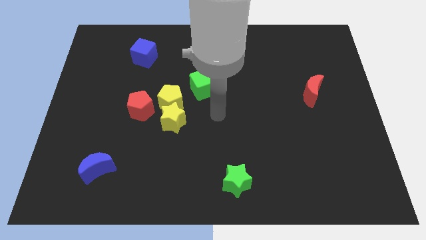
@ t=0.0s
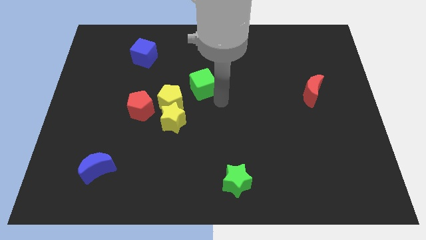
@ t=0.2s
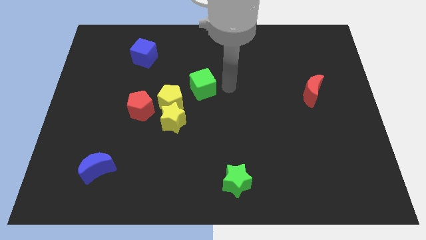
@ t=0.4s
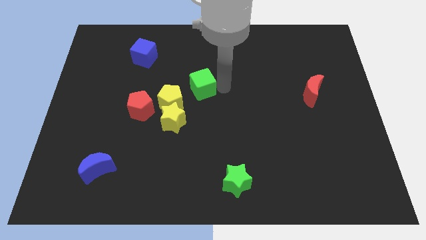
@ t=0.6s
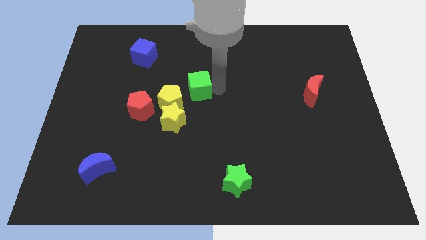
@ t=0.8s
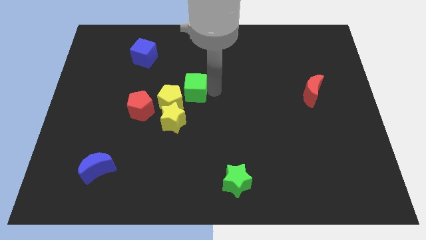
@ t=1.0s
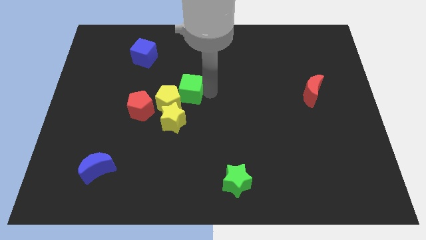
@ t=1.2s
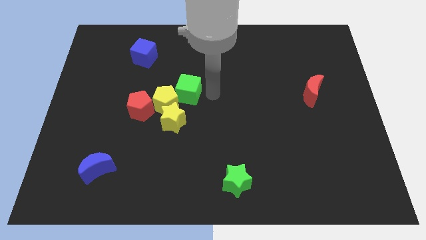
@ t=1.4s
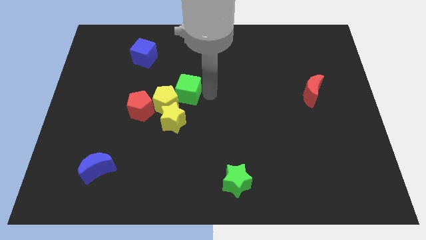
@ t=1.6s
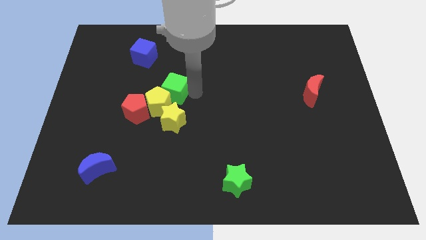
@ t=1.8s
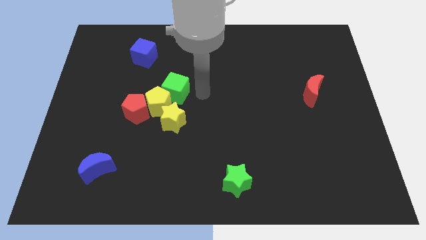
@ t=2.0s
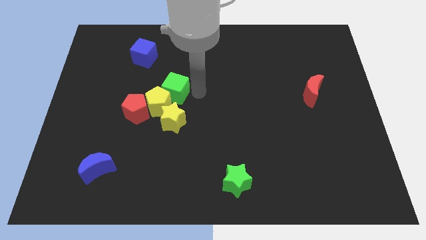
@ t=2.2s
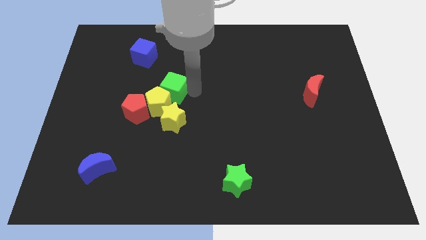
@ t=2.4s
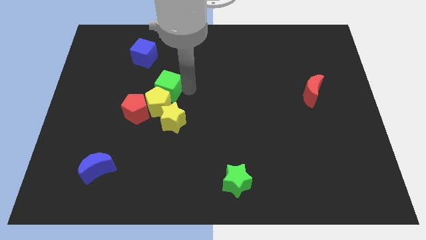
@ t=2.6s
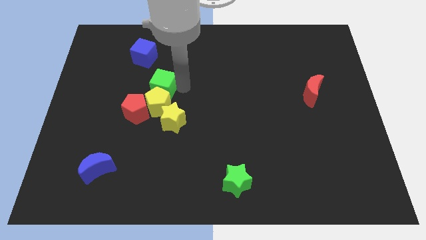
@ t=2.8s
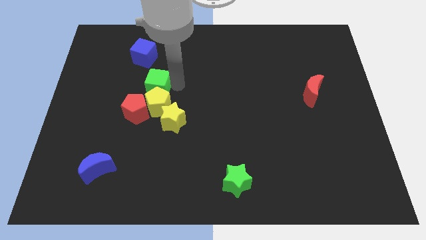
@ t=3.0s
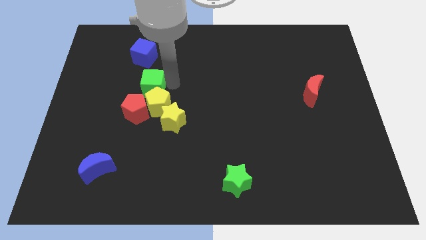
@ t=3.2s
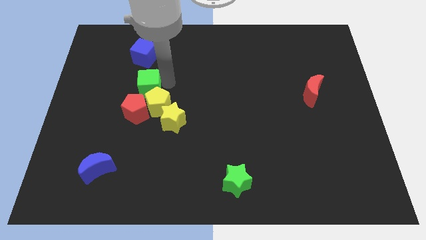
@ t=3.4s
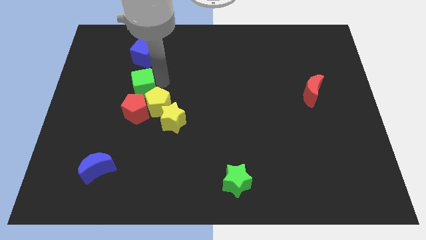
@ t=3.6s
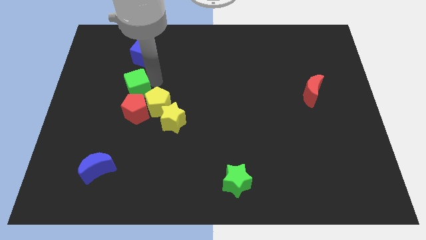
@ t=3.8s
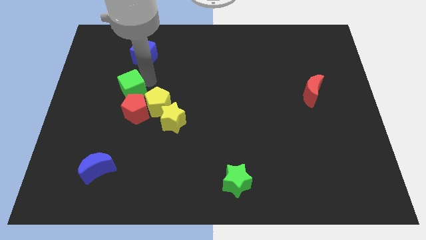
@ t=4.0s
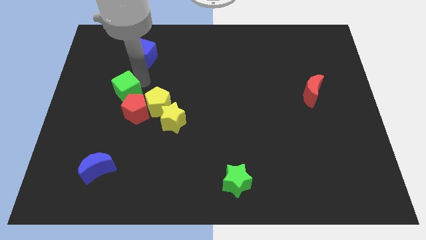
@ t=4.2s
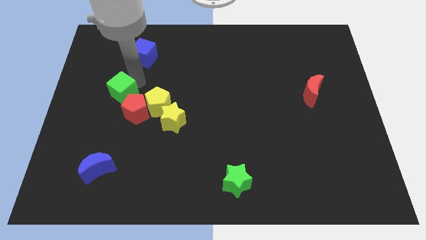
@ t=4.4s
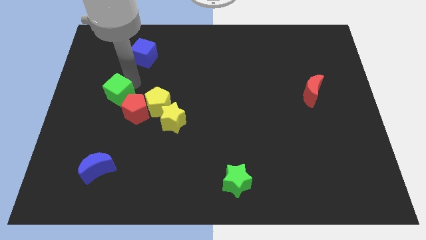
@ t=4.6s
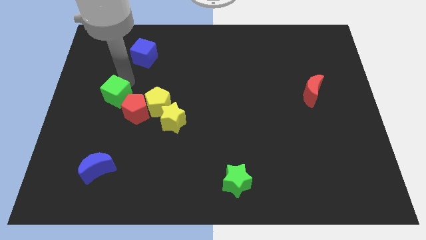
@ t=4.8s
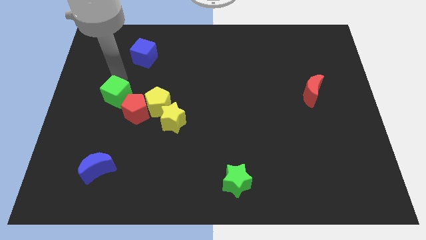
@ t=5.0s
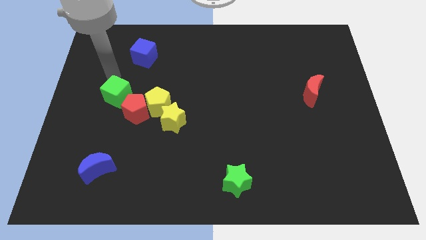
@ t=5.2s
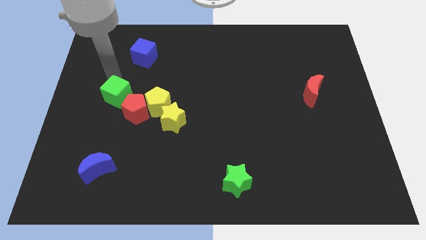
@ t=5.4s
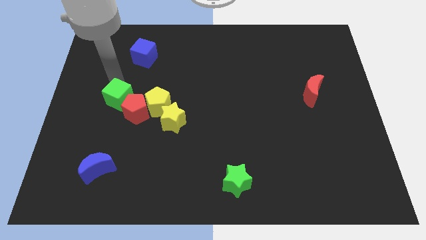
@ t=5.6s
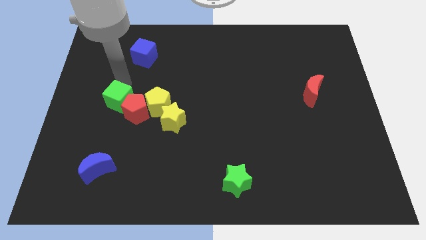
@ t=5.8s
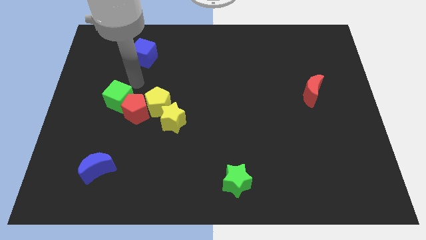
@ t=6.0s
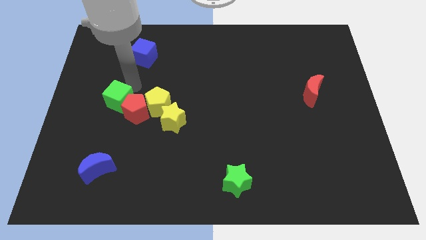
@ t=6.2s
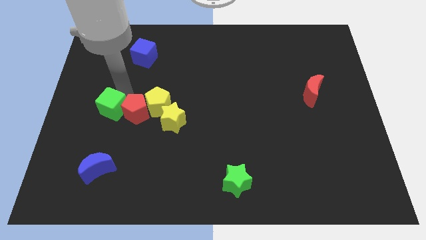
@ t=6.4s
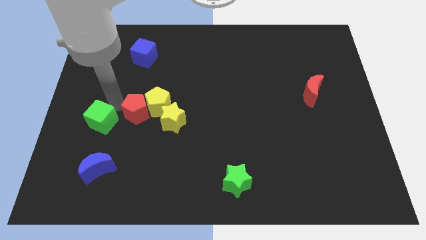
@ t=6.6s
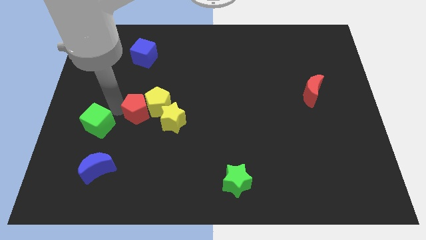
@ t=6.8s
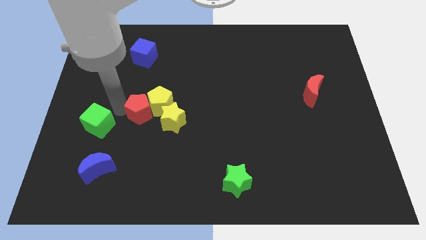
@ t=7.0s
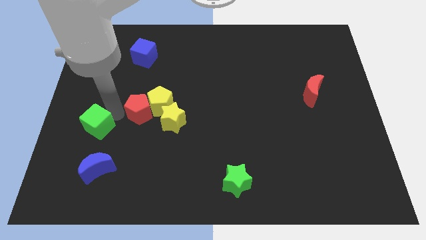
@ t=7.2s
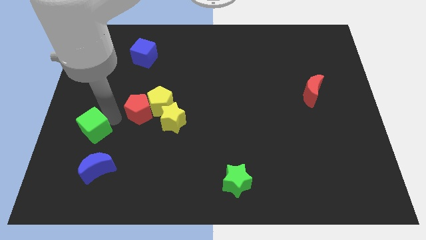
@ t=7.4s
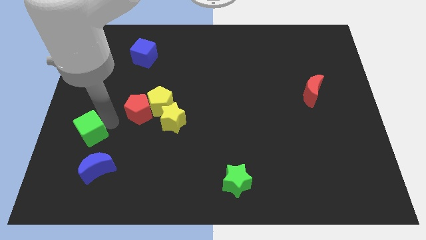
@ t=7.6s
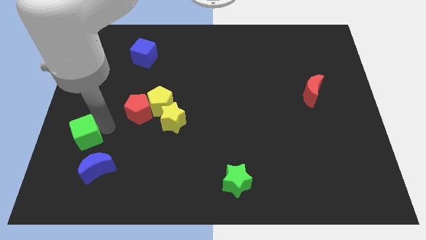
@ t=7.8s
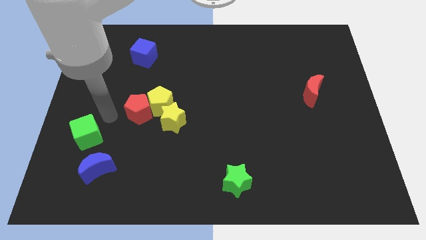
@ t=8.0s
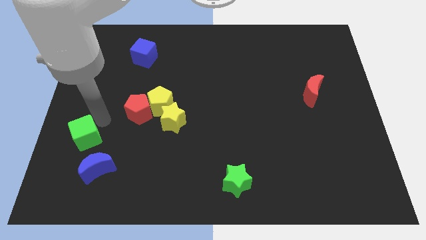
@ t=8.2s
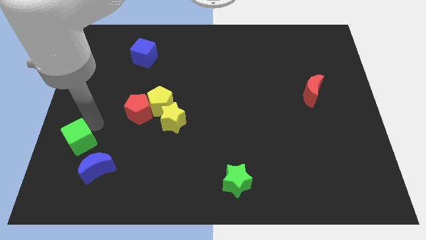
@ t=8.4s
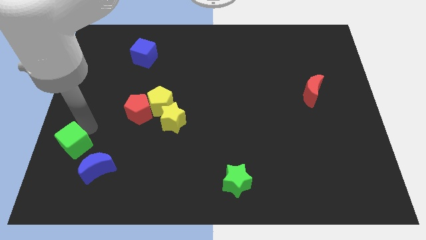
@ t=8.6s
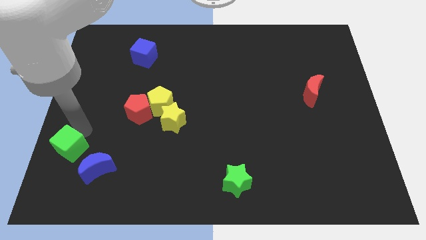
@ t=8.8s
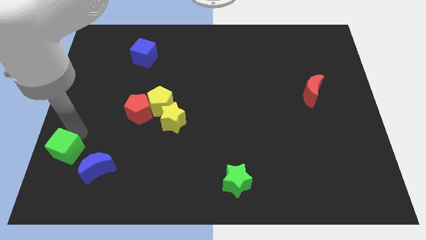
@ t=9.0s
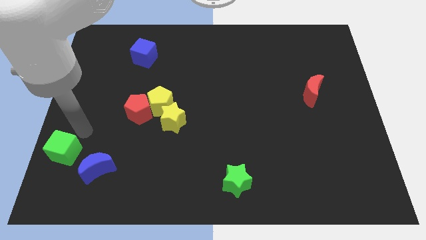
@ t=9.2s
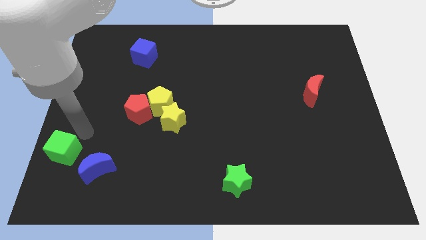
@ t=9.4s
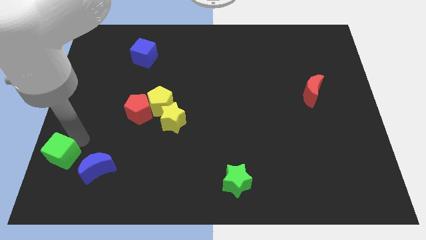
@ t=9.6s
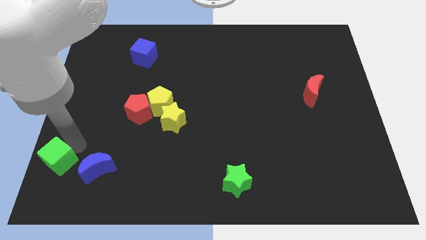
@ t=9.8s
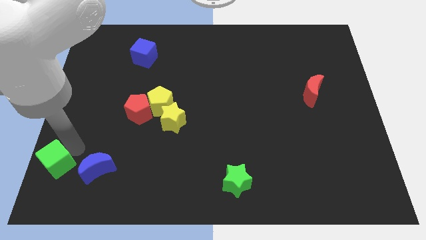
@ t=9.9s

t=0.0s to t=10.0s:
put the green cube to the bottom left

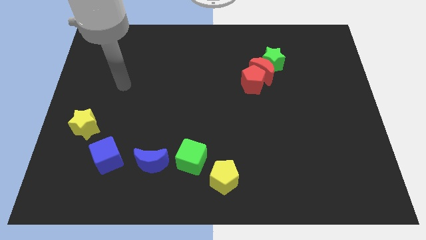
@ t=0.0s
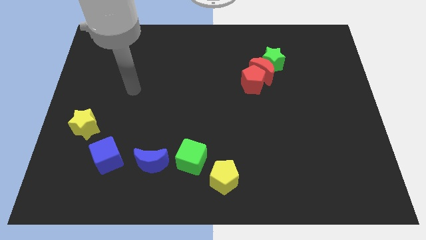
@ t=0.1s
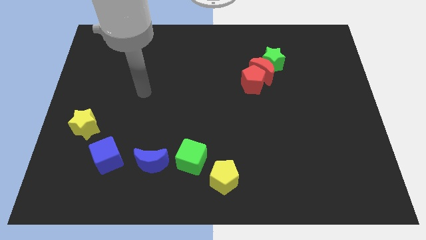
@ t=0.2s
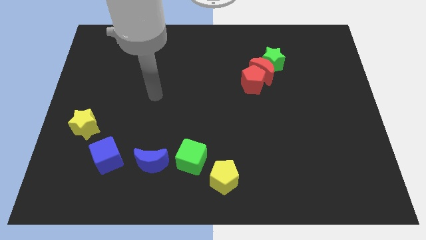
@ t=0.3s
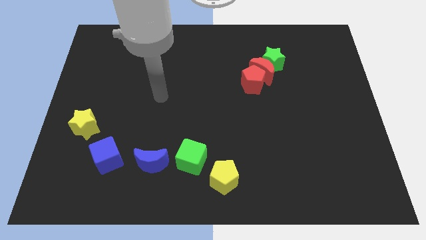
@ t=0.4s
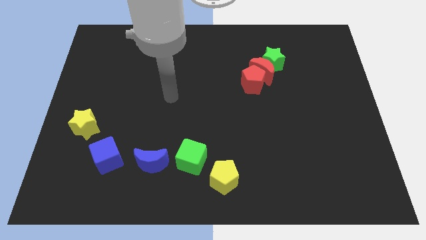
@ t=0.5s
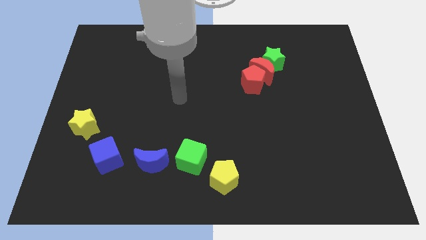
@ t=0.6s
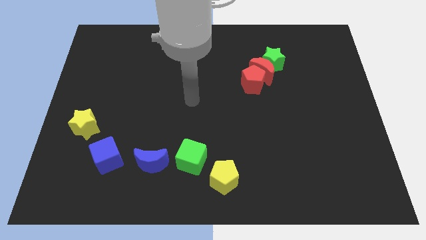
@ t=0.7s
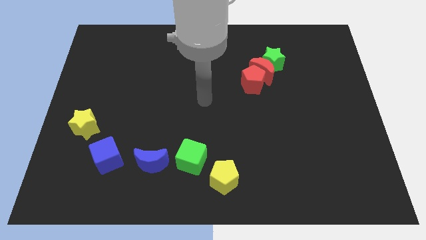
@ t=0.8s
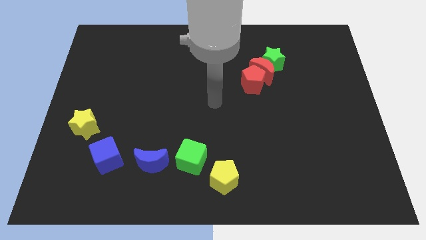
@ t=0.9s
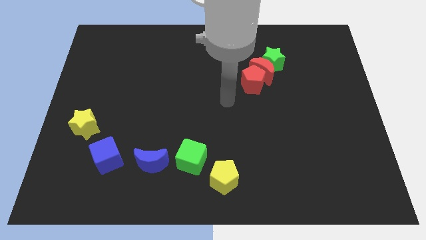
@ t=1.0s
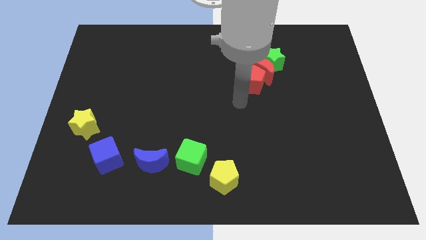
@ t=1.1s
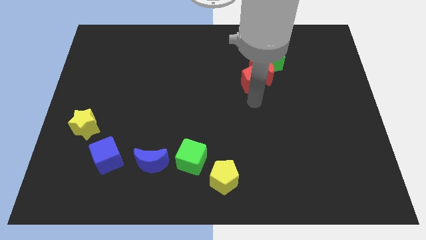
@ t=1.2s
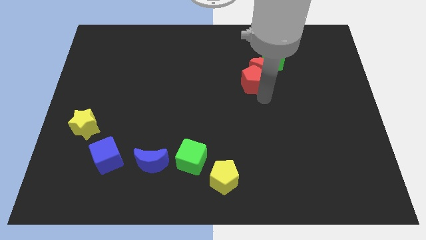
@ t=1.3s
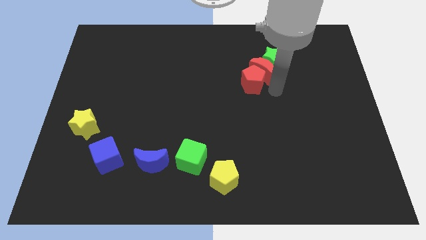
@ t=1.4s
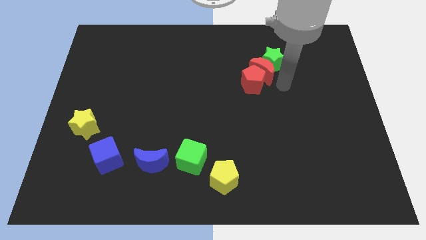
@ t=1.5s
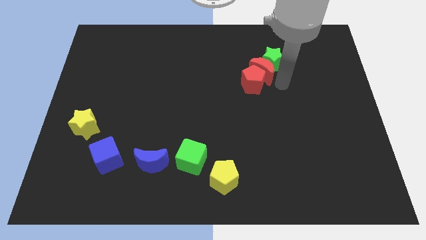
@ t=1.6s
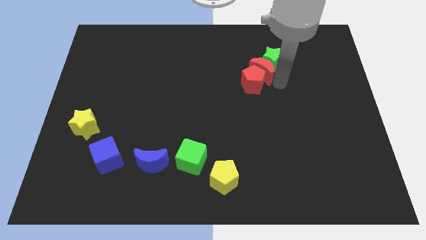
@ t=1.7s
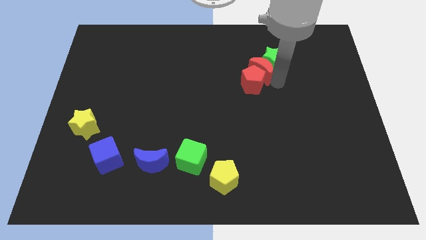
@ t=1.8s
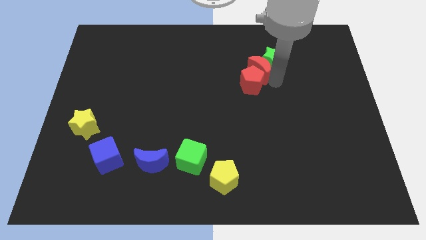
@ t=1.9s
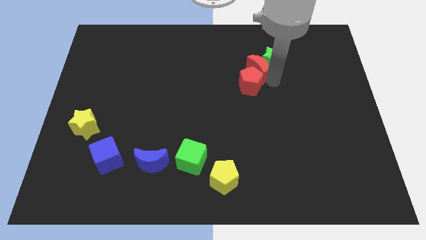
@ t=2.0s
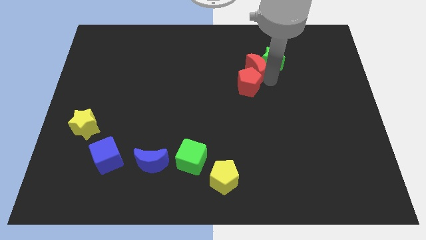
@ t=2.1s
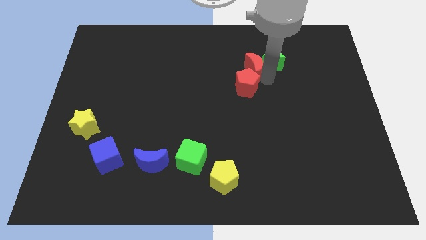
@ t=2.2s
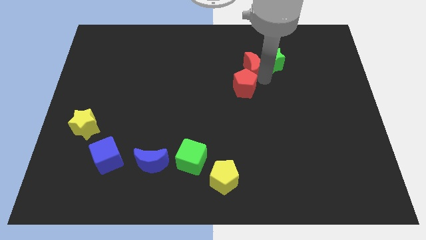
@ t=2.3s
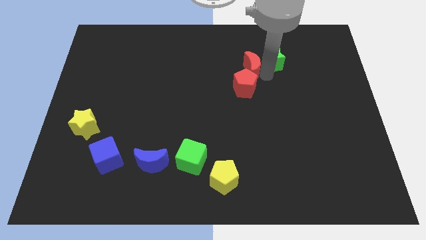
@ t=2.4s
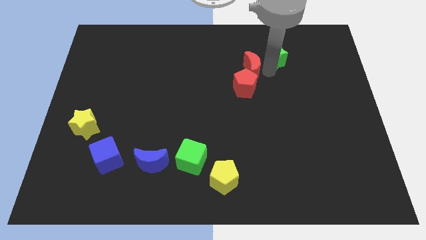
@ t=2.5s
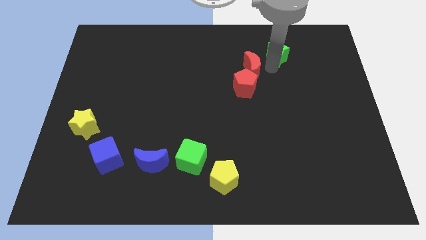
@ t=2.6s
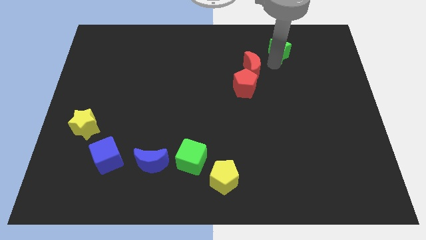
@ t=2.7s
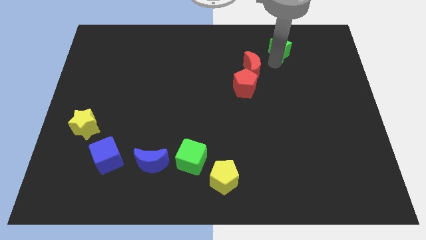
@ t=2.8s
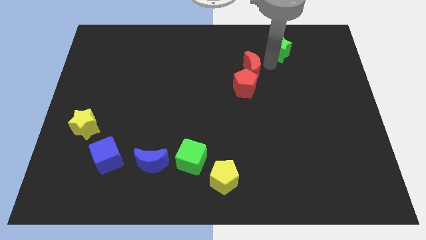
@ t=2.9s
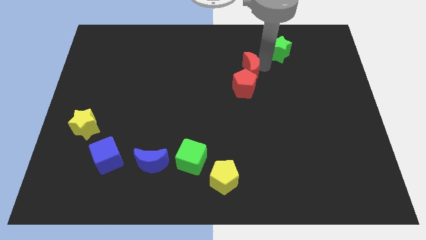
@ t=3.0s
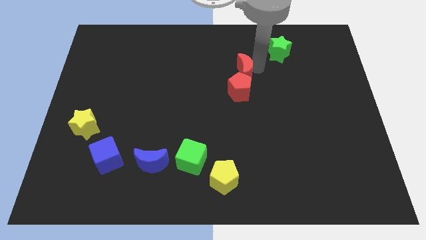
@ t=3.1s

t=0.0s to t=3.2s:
move the red moon to the middle of the board
